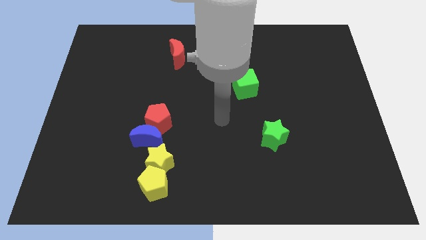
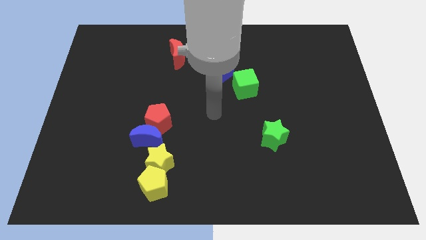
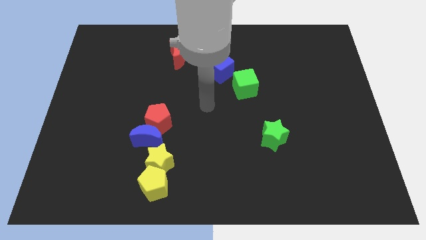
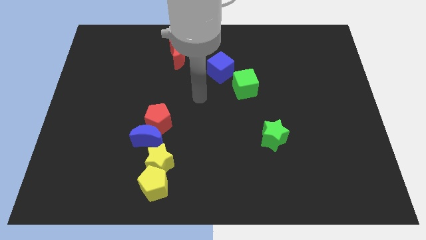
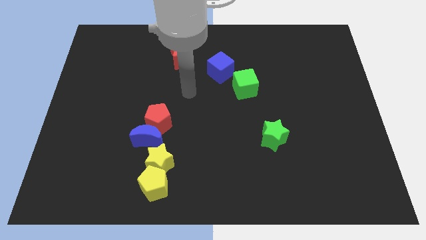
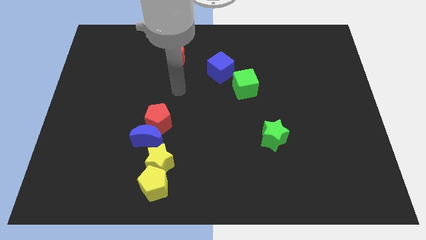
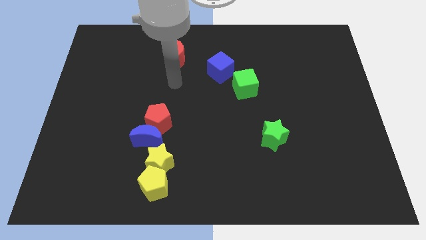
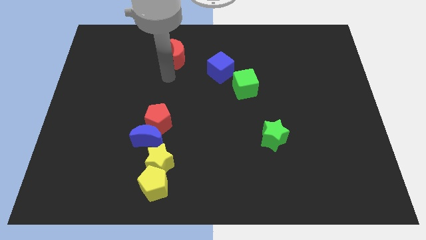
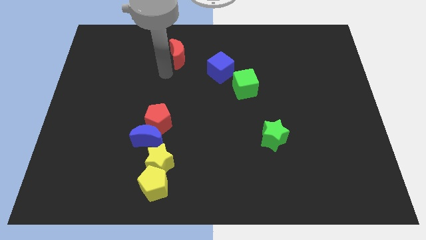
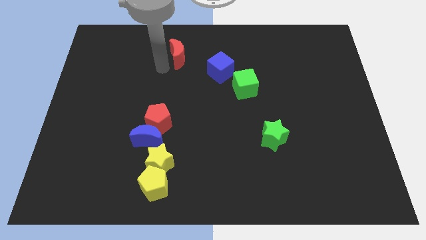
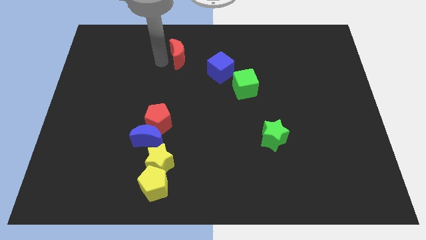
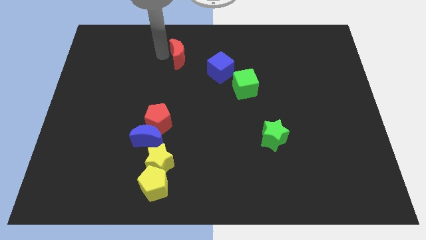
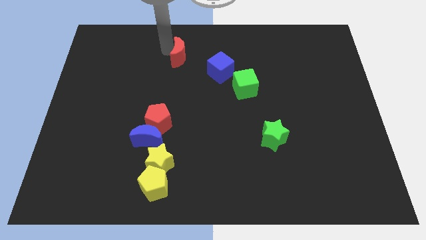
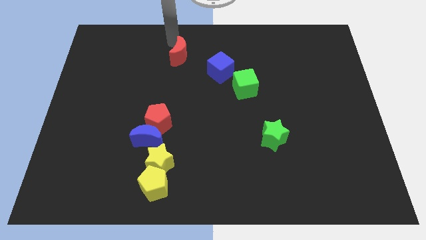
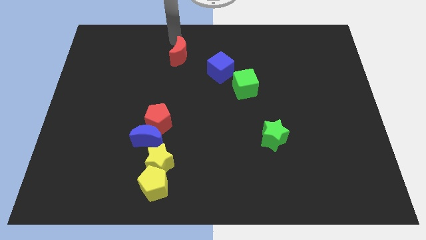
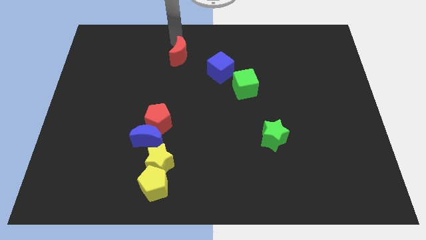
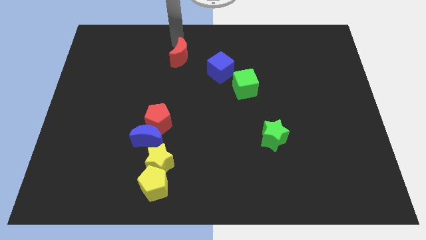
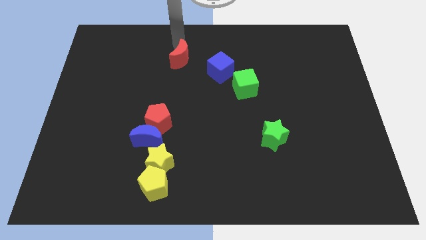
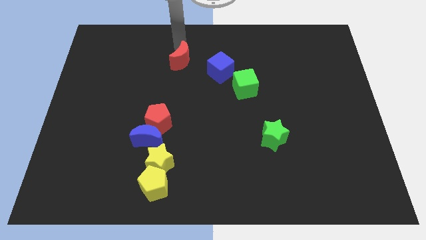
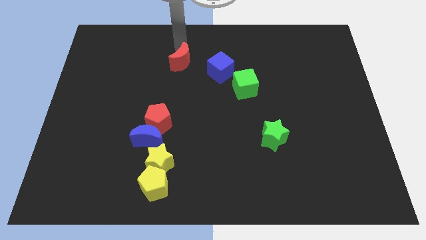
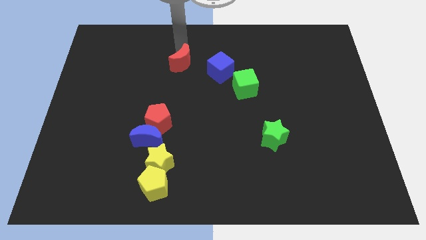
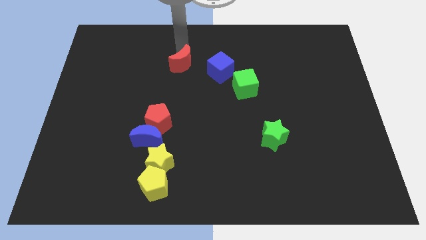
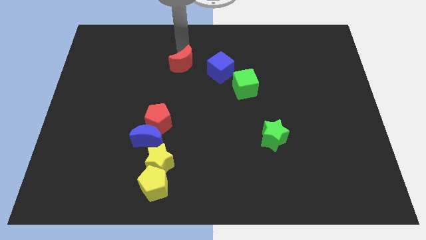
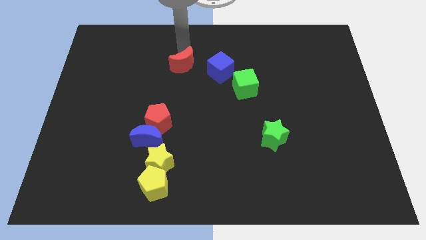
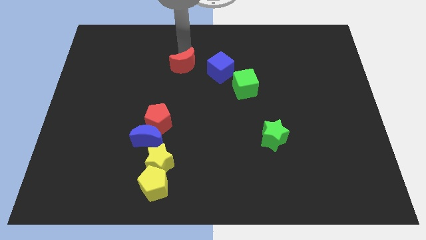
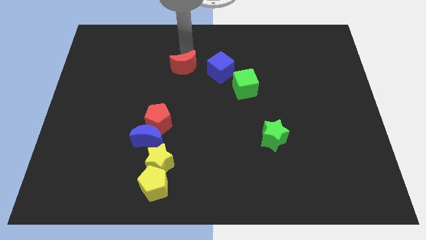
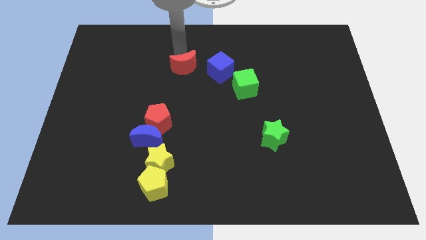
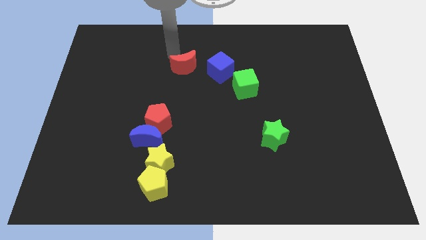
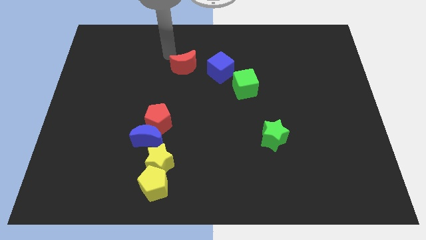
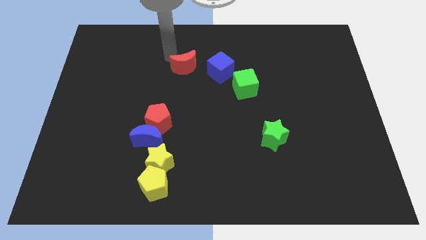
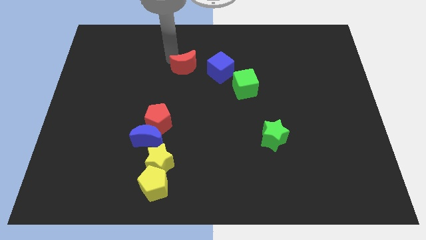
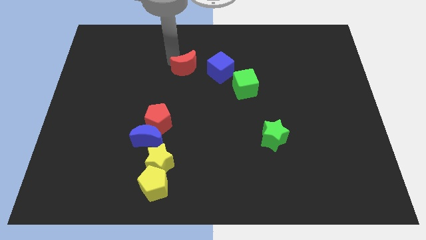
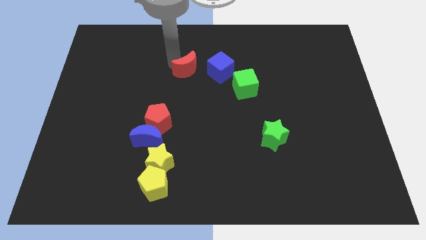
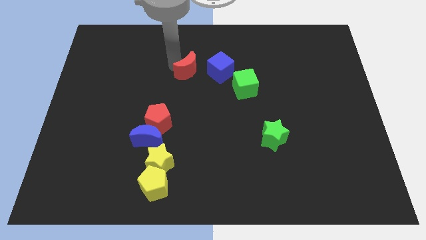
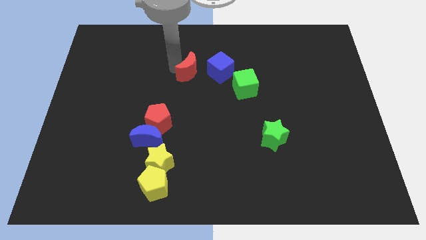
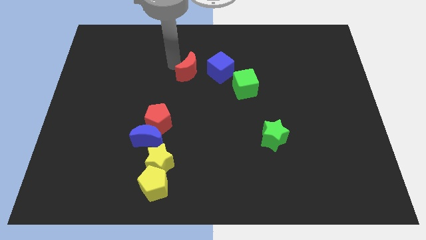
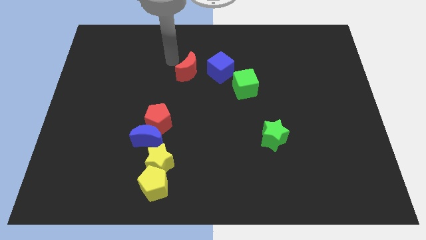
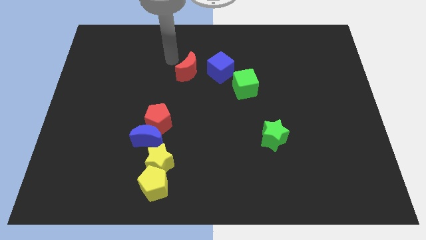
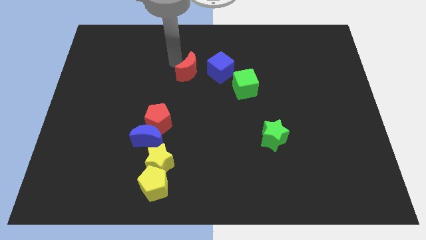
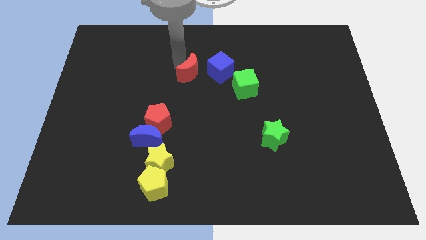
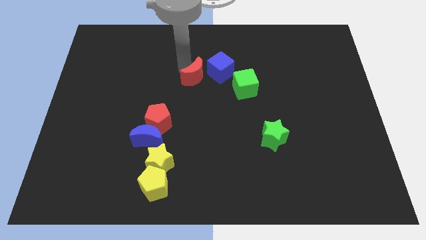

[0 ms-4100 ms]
move the red moon downwards and then to the right a bit

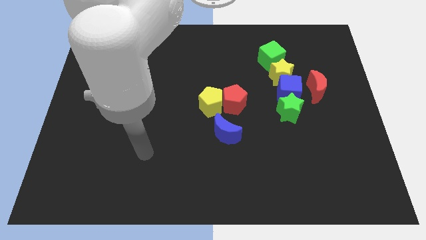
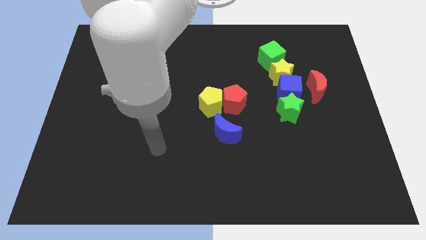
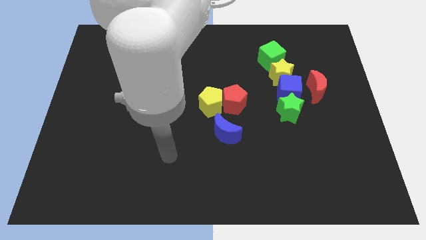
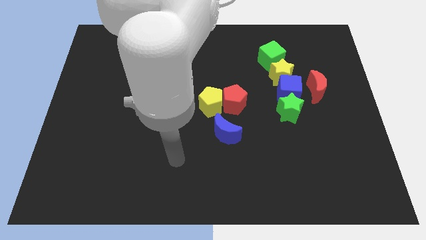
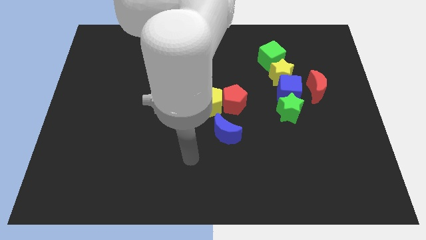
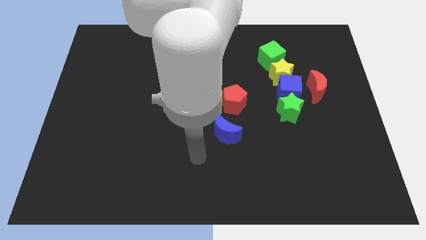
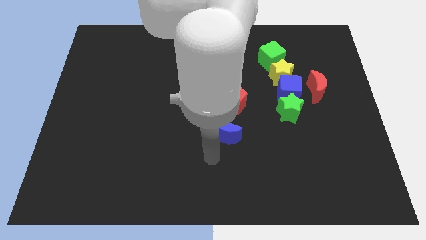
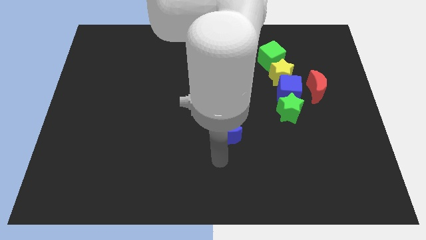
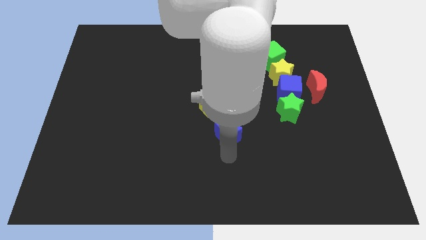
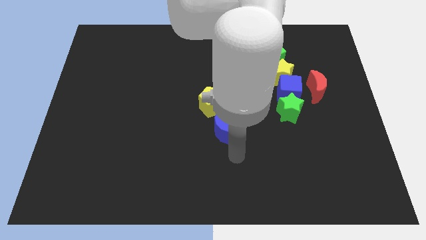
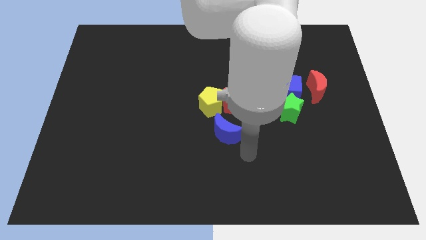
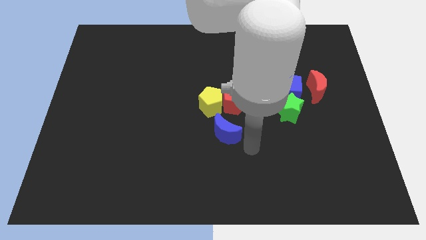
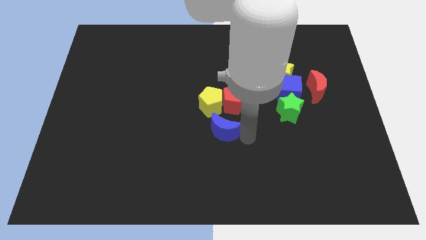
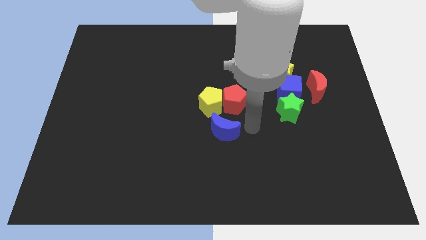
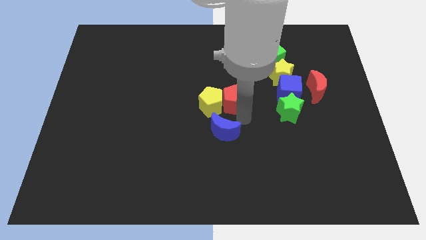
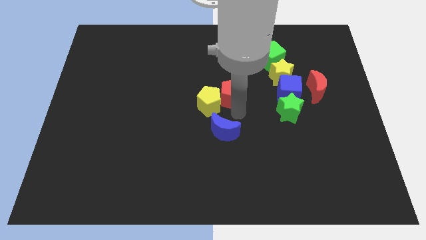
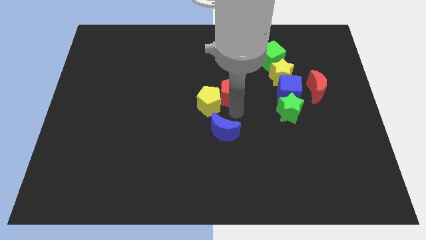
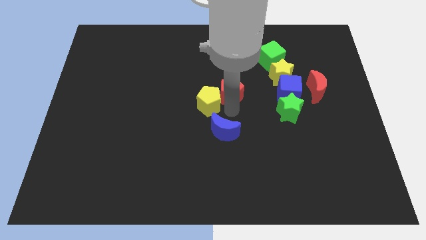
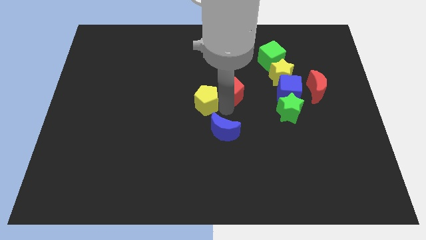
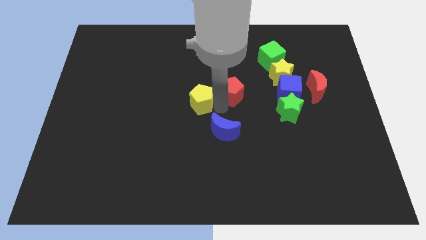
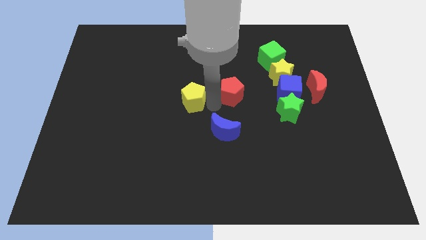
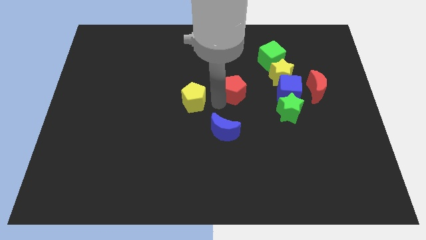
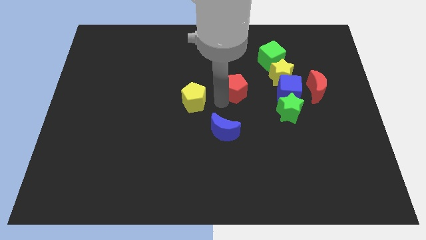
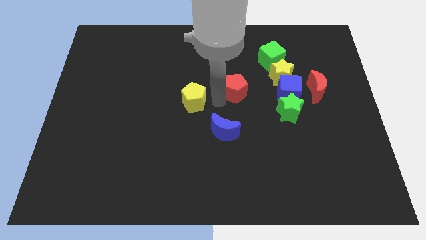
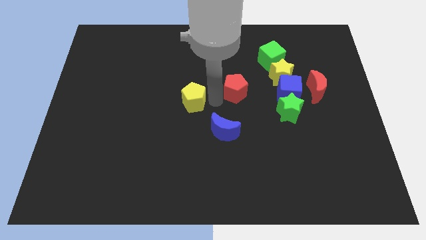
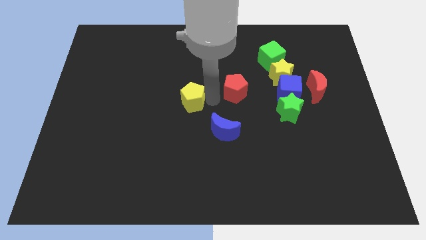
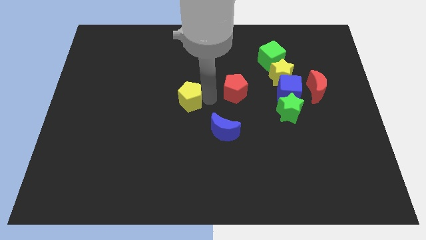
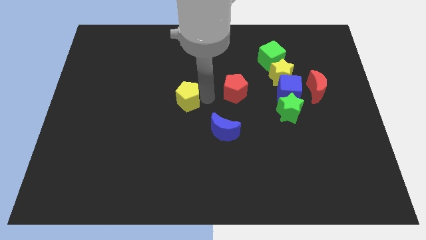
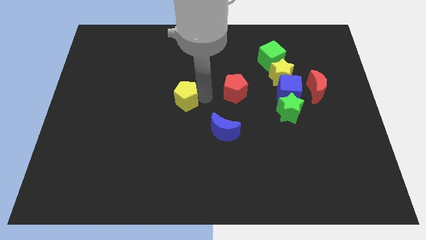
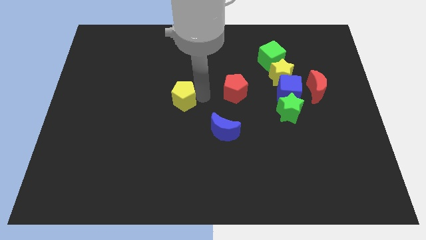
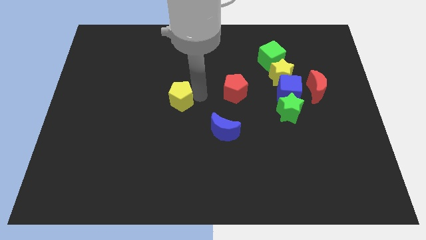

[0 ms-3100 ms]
slide the yellow pentagon somewhat left

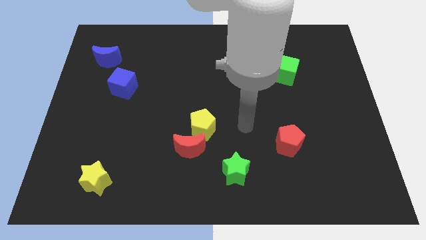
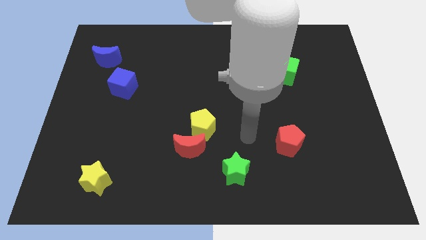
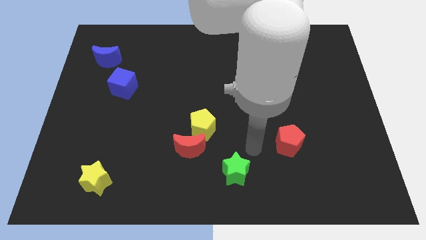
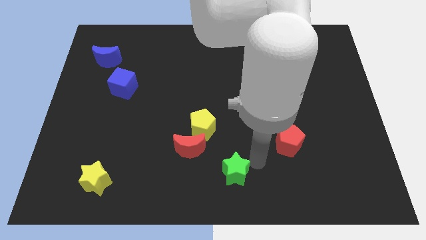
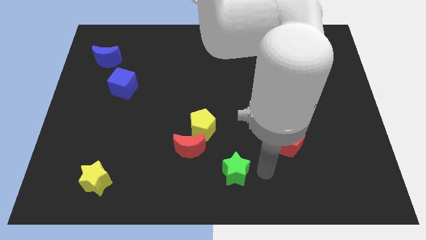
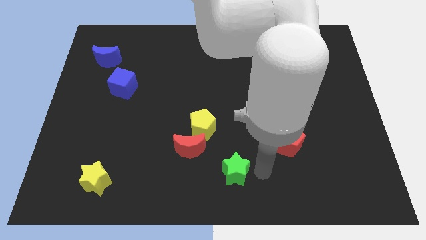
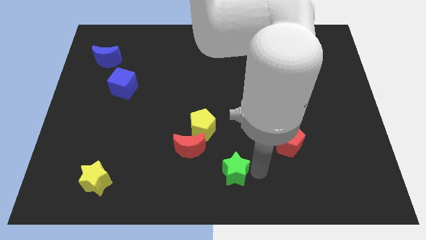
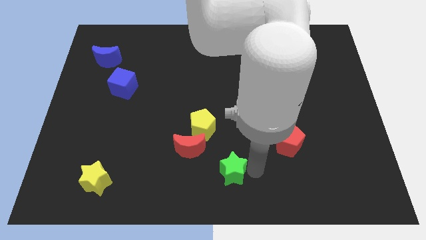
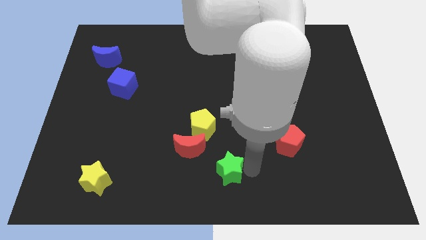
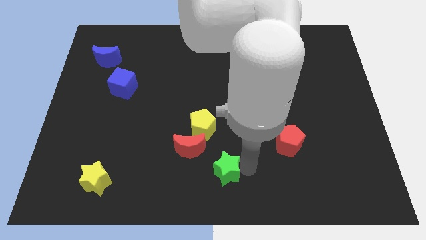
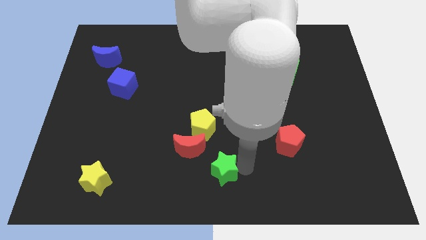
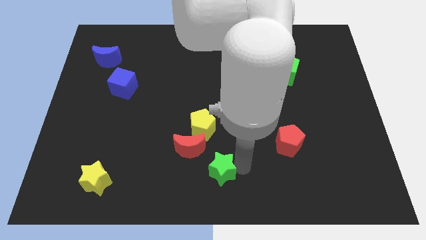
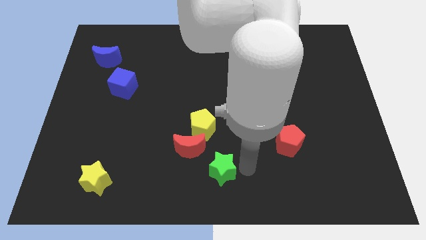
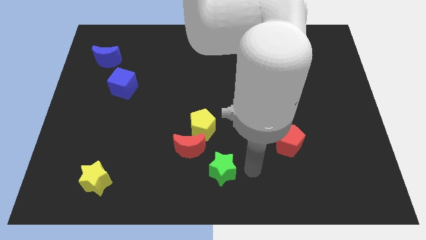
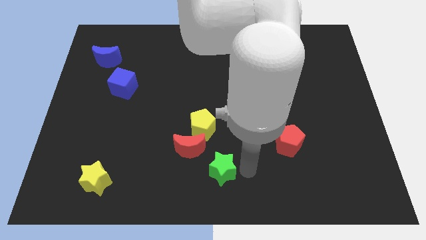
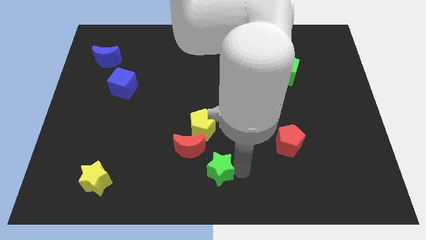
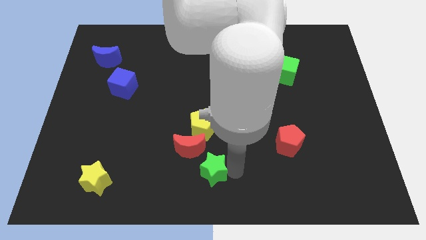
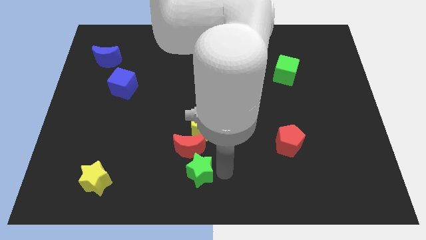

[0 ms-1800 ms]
slightly push the green star left
